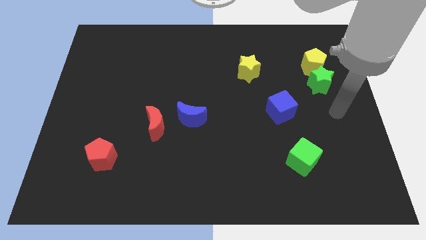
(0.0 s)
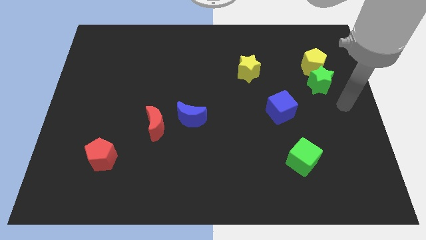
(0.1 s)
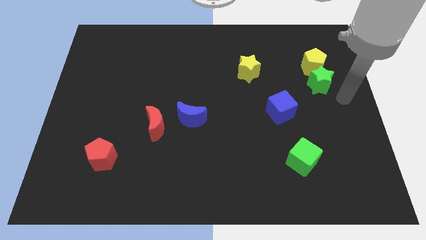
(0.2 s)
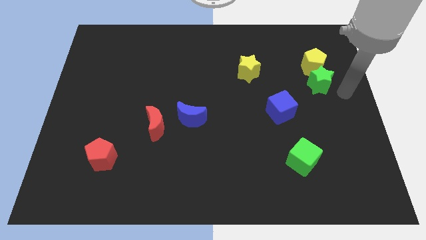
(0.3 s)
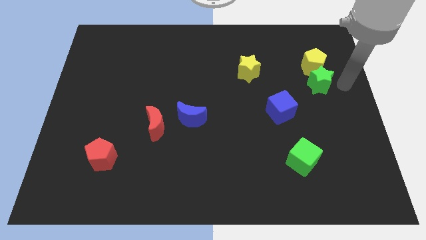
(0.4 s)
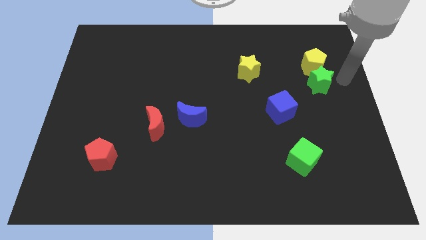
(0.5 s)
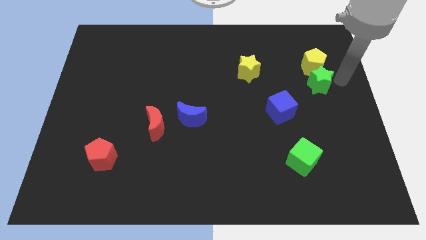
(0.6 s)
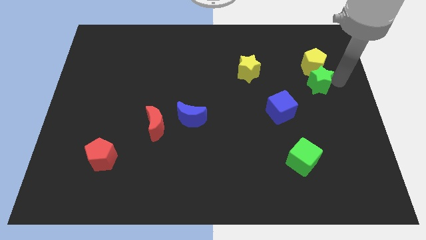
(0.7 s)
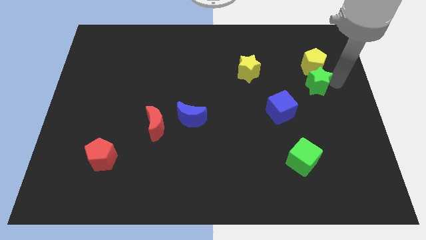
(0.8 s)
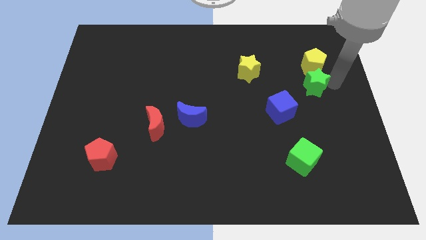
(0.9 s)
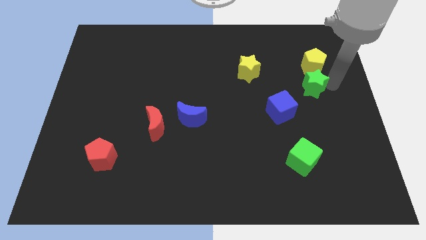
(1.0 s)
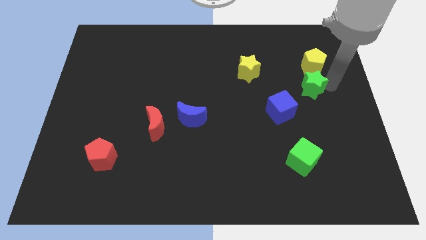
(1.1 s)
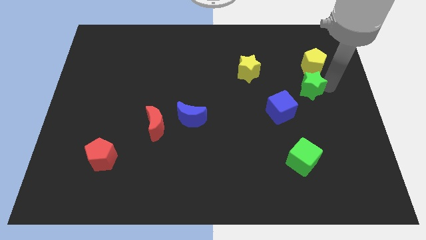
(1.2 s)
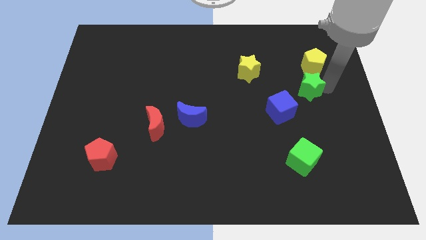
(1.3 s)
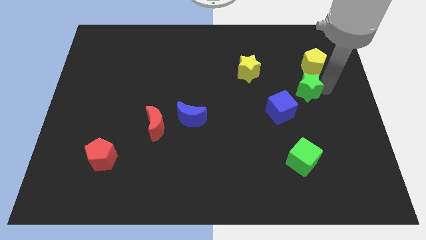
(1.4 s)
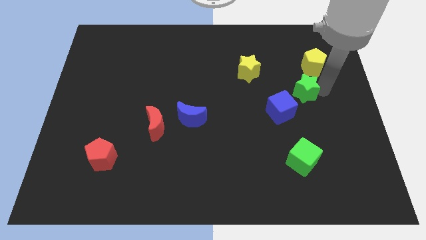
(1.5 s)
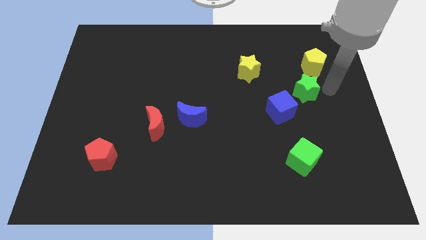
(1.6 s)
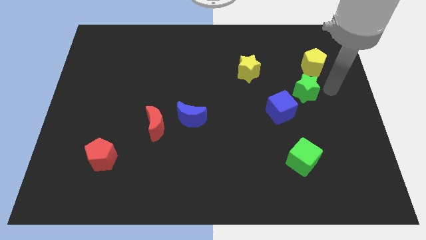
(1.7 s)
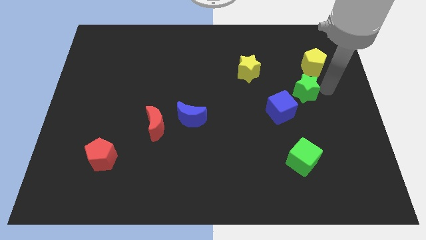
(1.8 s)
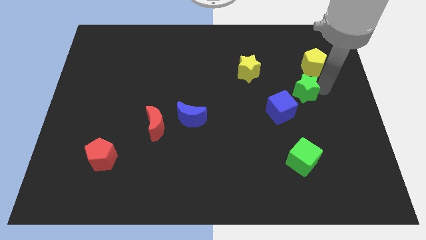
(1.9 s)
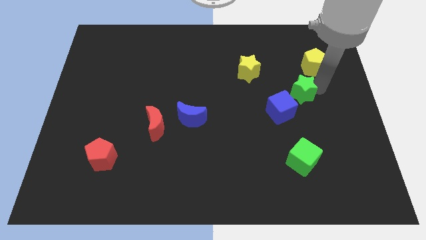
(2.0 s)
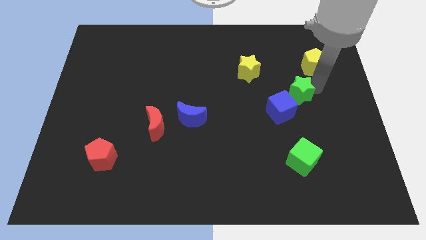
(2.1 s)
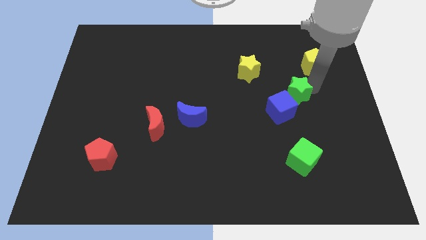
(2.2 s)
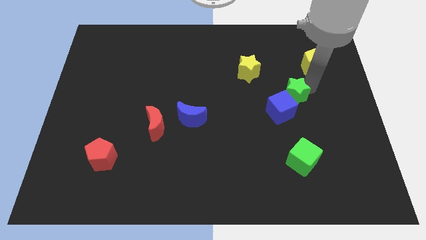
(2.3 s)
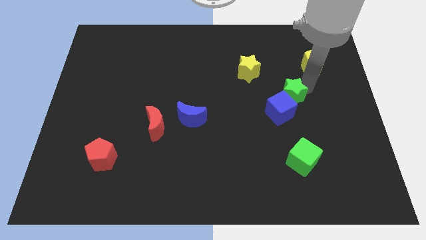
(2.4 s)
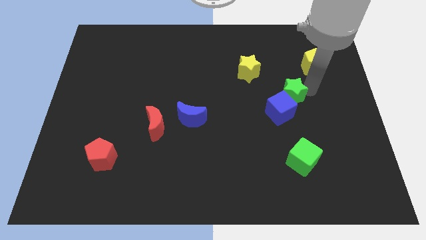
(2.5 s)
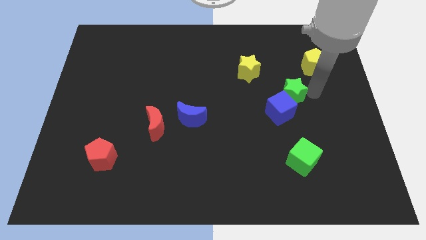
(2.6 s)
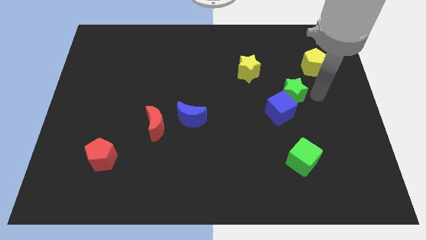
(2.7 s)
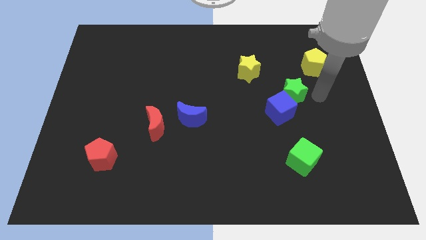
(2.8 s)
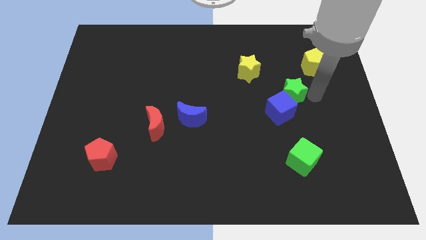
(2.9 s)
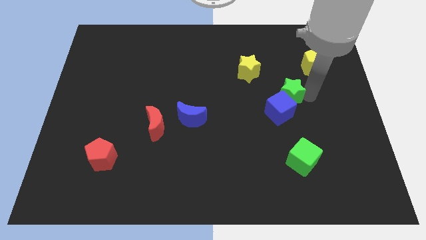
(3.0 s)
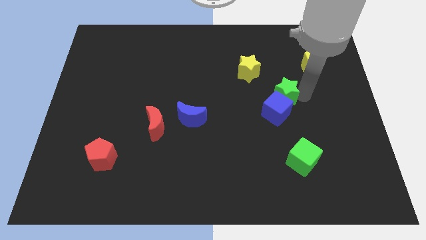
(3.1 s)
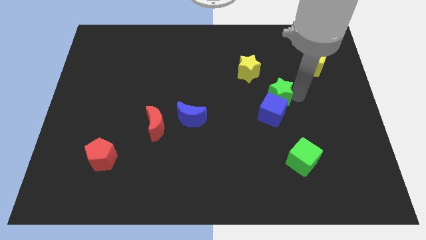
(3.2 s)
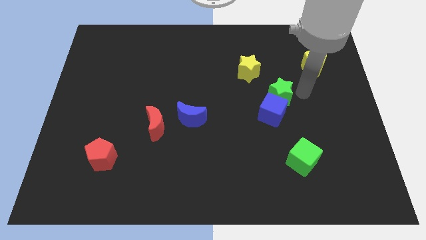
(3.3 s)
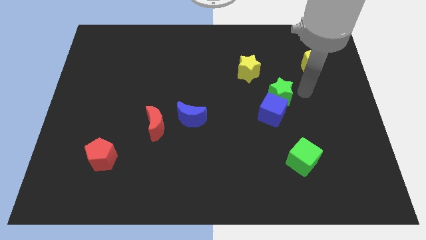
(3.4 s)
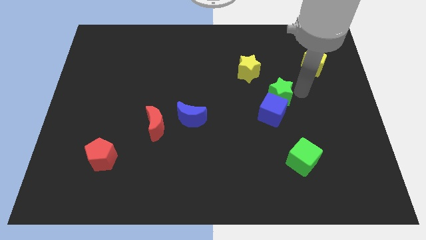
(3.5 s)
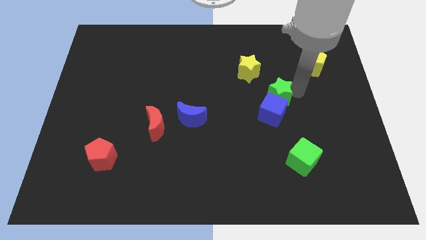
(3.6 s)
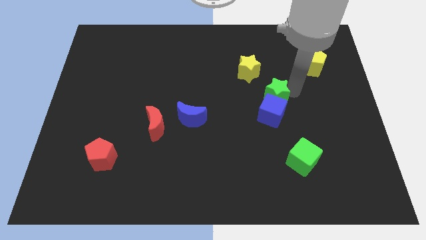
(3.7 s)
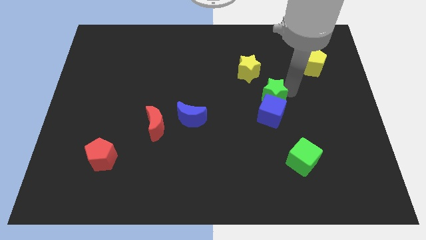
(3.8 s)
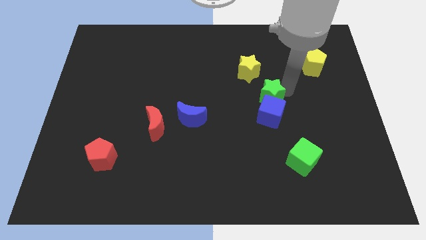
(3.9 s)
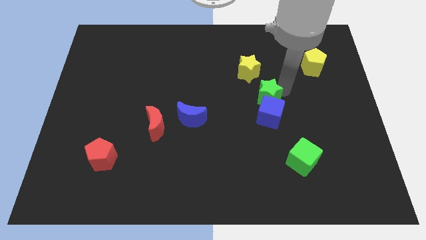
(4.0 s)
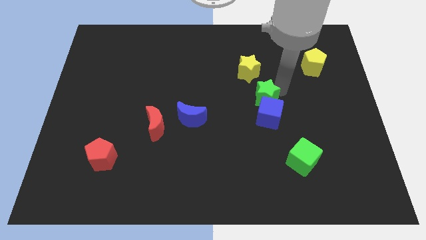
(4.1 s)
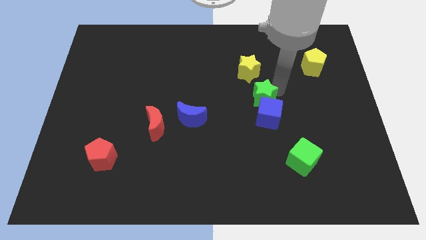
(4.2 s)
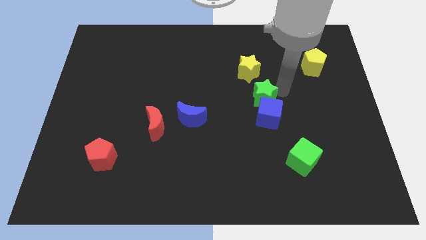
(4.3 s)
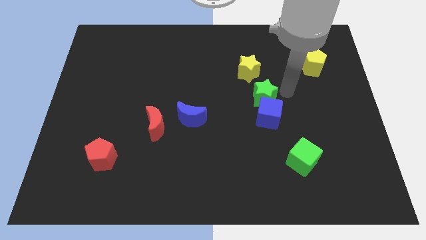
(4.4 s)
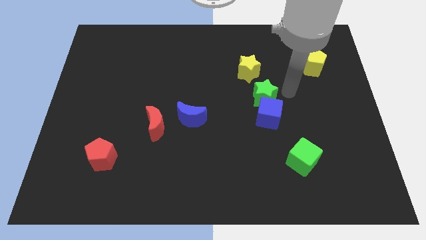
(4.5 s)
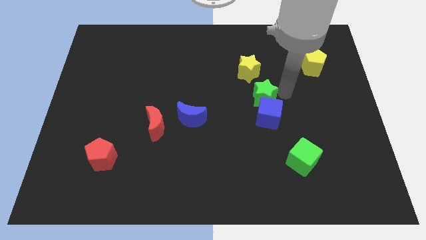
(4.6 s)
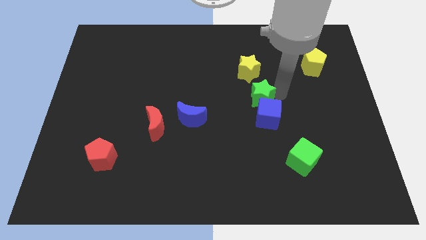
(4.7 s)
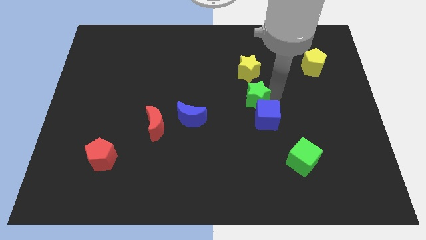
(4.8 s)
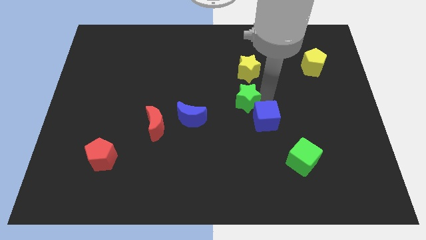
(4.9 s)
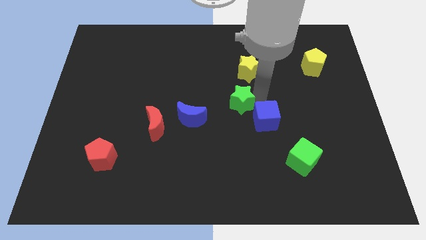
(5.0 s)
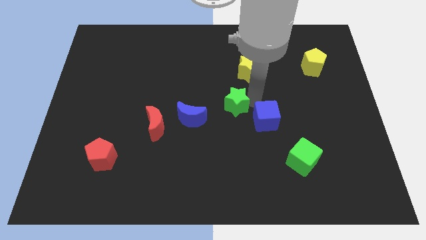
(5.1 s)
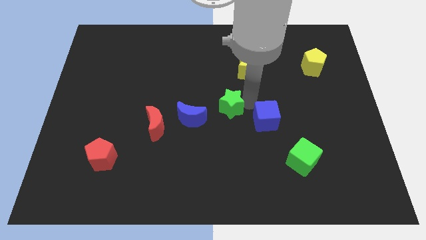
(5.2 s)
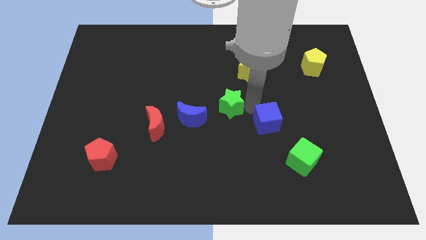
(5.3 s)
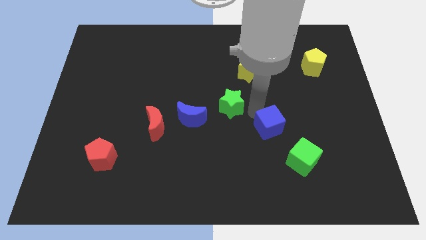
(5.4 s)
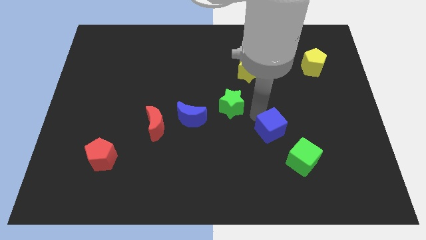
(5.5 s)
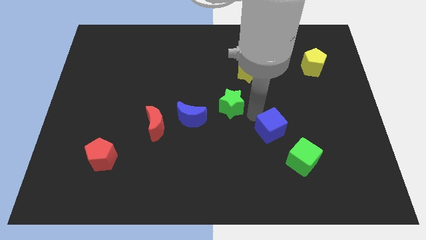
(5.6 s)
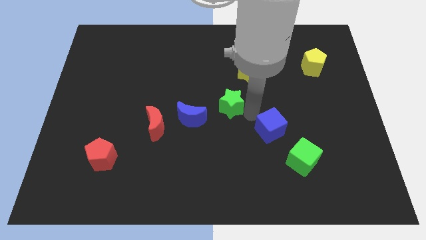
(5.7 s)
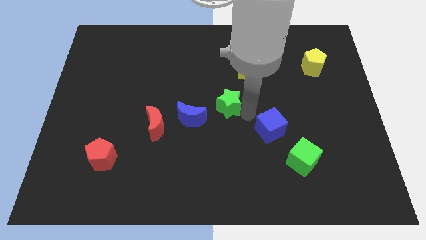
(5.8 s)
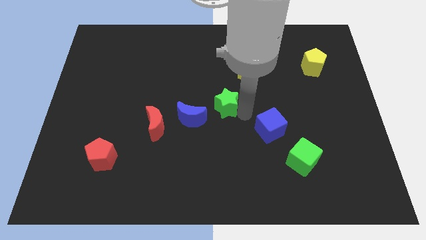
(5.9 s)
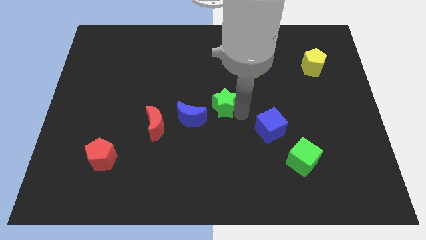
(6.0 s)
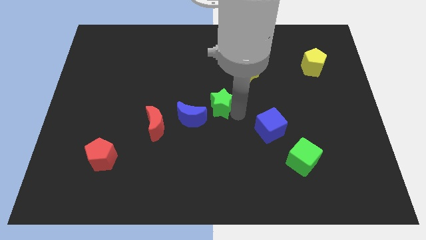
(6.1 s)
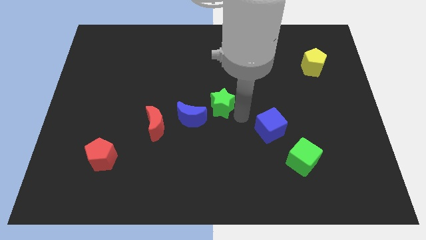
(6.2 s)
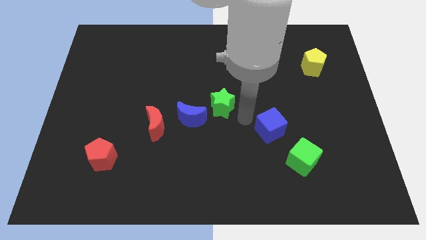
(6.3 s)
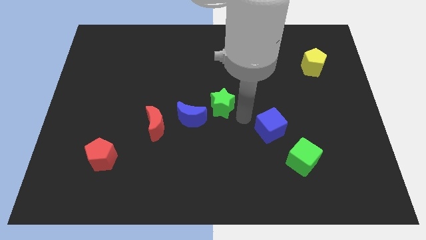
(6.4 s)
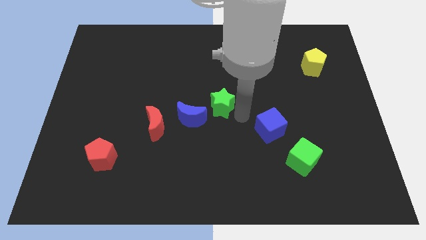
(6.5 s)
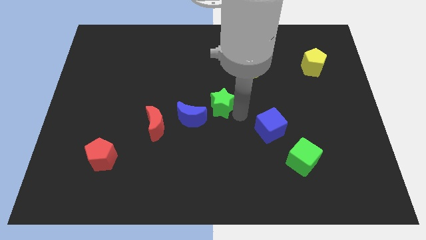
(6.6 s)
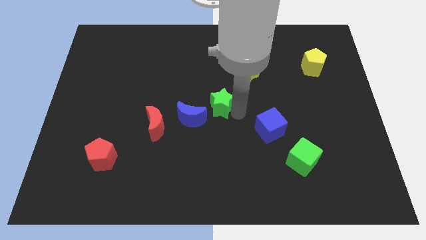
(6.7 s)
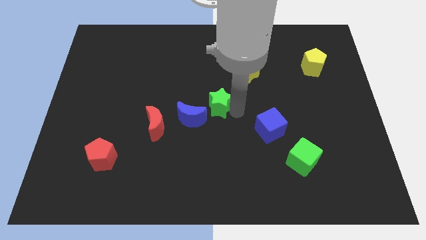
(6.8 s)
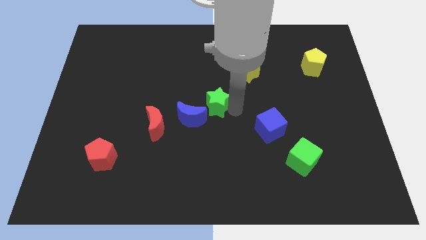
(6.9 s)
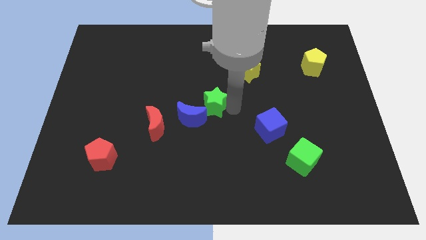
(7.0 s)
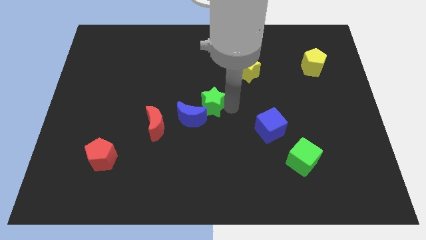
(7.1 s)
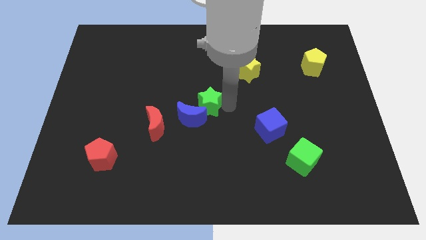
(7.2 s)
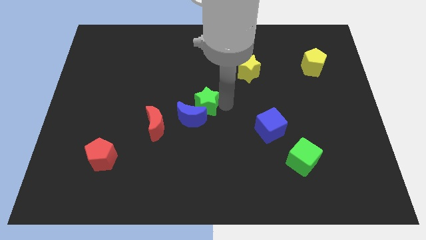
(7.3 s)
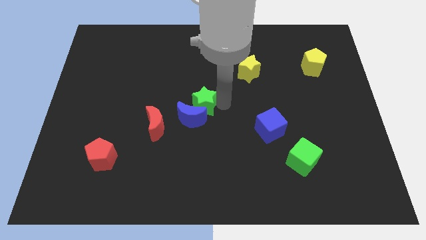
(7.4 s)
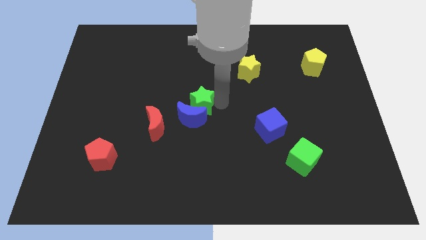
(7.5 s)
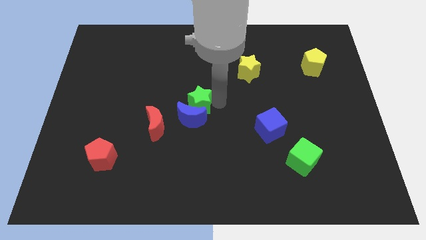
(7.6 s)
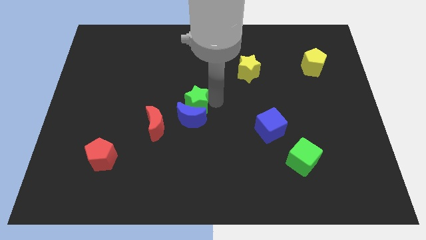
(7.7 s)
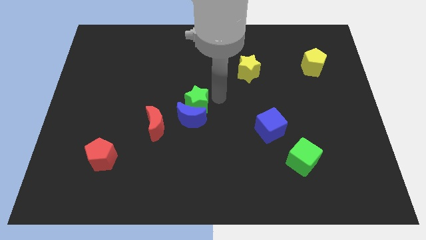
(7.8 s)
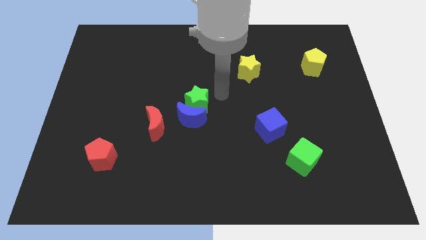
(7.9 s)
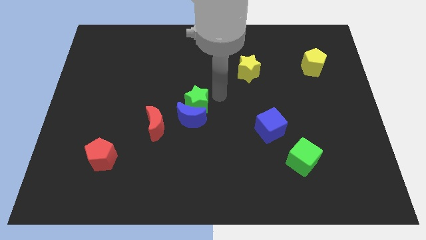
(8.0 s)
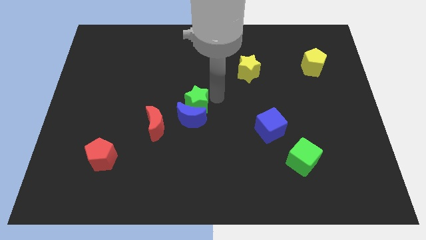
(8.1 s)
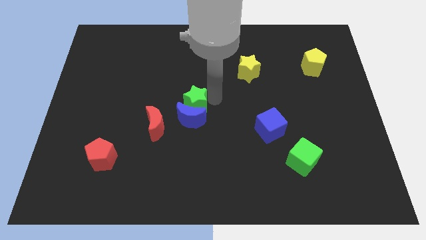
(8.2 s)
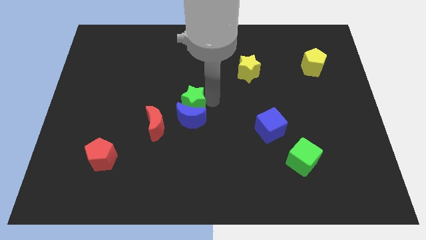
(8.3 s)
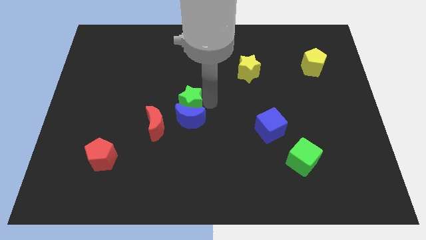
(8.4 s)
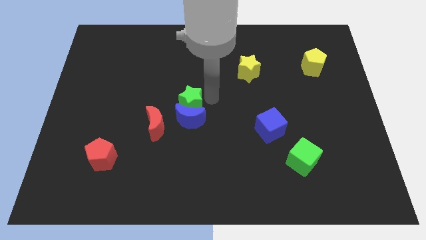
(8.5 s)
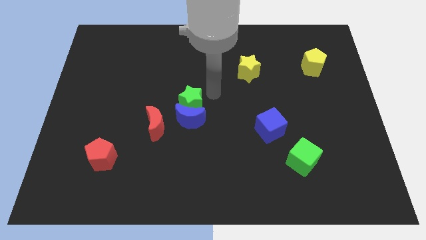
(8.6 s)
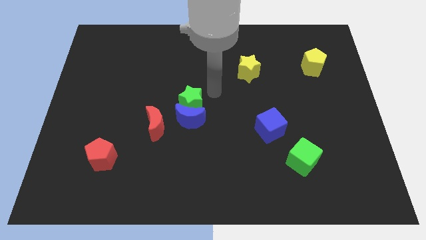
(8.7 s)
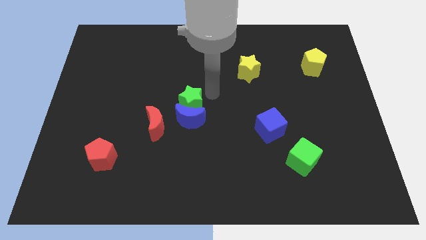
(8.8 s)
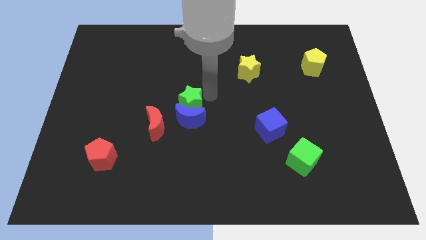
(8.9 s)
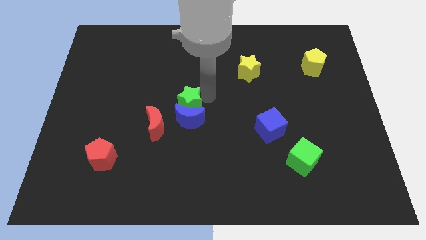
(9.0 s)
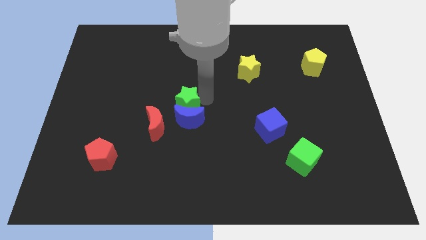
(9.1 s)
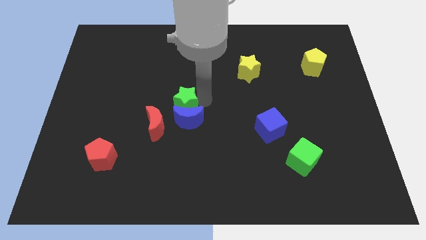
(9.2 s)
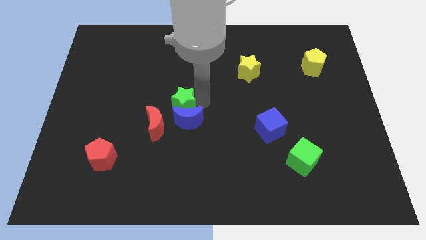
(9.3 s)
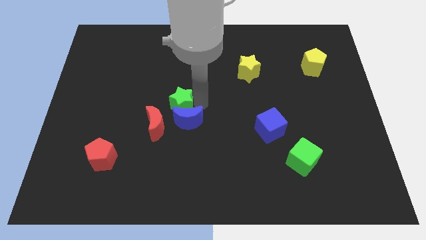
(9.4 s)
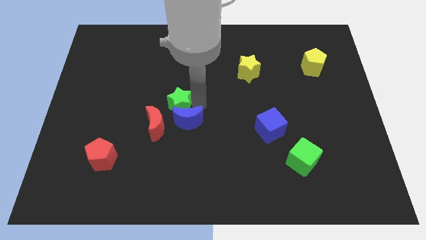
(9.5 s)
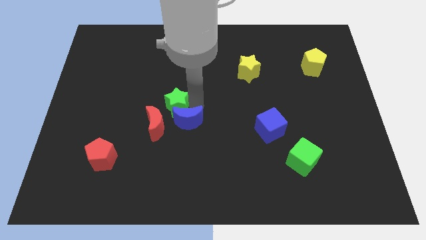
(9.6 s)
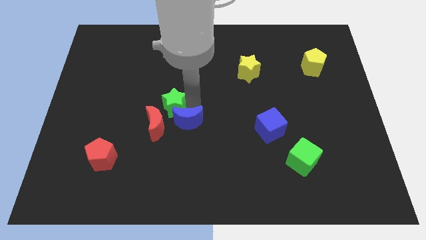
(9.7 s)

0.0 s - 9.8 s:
push the green star close to the red moon
